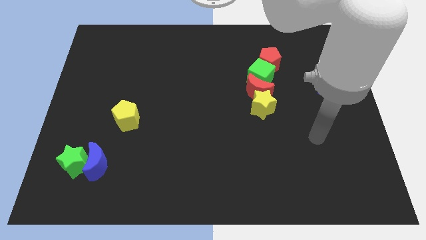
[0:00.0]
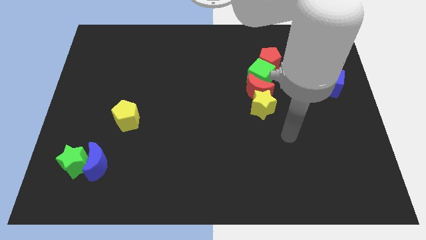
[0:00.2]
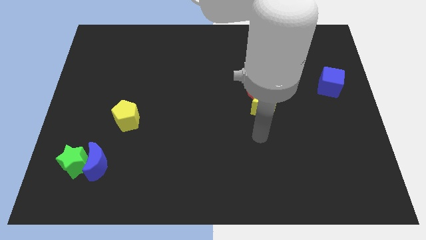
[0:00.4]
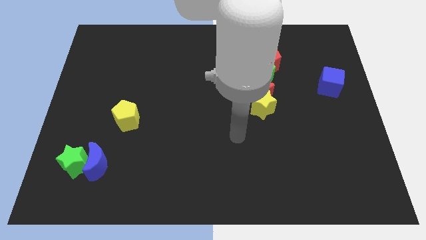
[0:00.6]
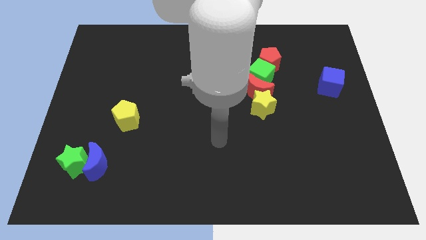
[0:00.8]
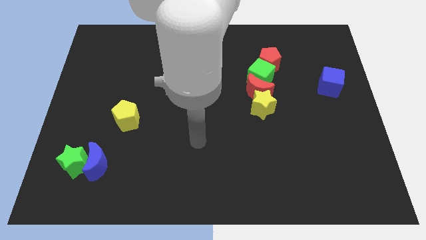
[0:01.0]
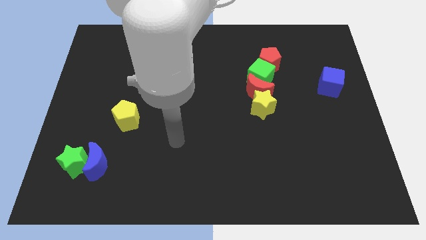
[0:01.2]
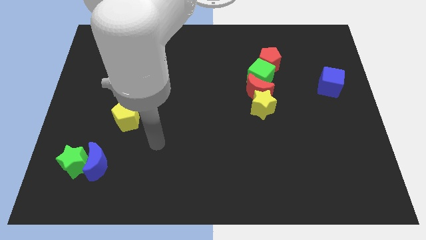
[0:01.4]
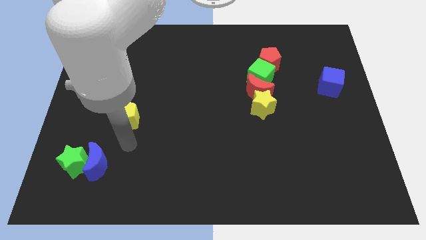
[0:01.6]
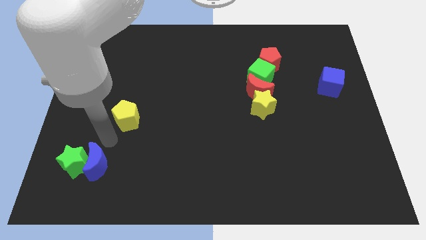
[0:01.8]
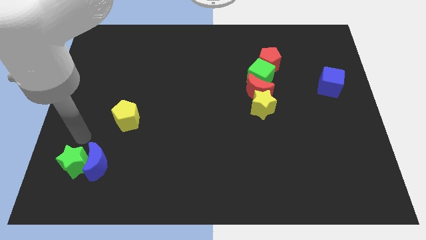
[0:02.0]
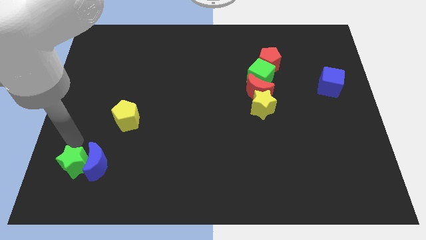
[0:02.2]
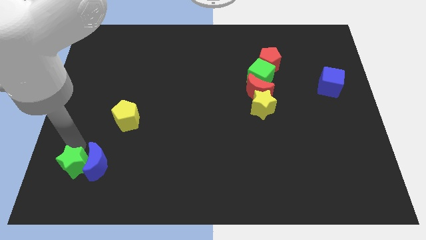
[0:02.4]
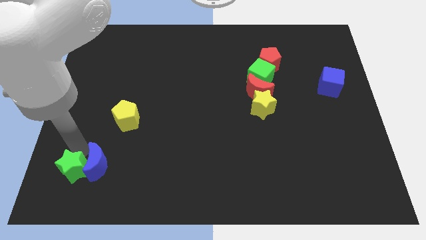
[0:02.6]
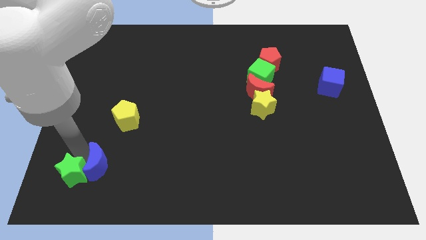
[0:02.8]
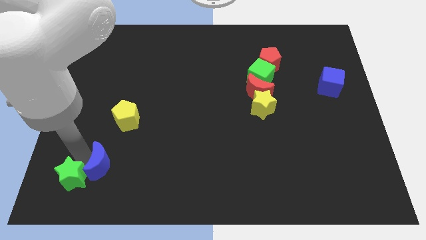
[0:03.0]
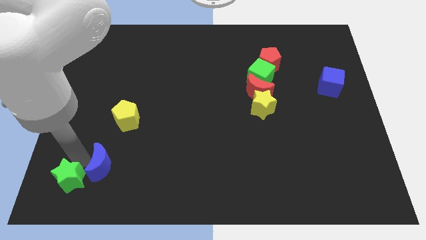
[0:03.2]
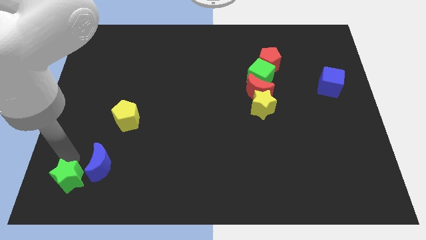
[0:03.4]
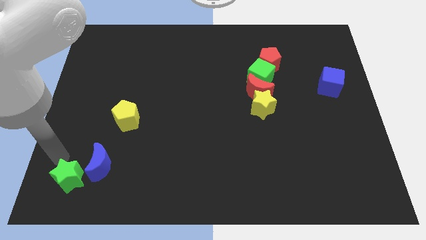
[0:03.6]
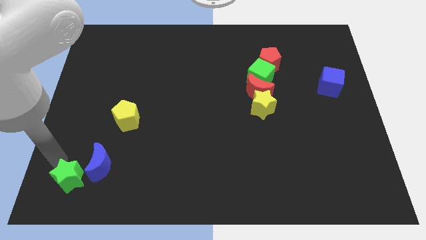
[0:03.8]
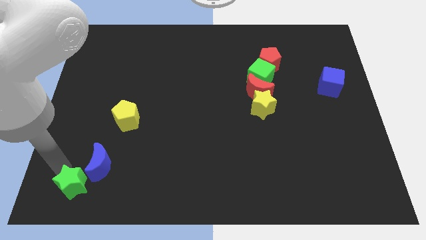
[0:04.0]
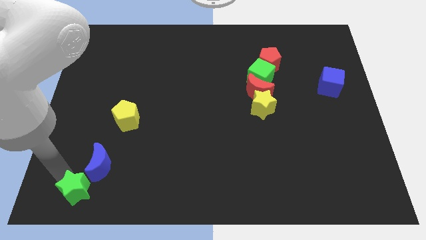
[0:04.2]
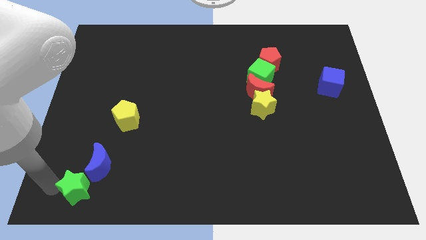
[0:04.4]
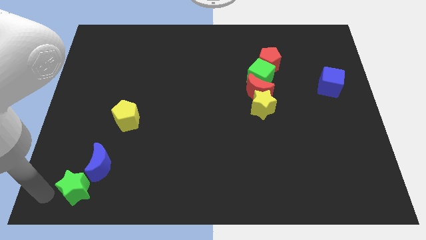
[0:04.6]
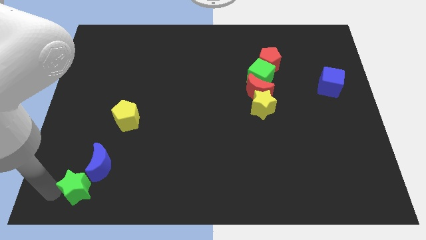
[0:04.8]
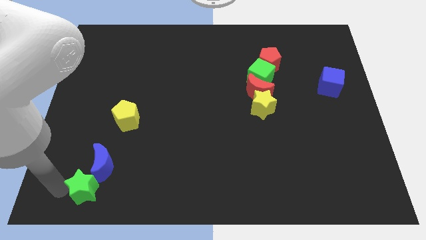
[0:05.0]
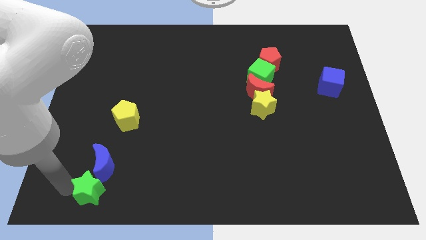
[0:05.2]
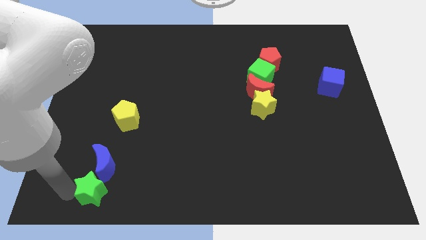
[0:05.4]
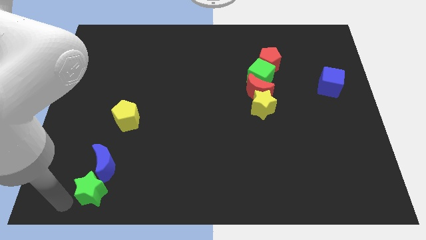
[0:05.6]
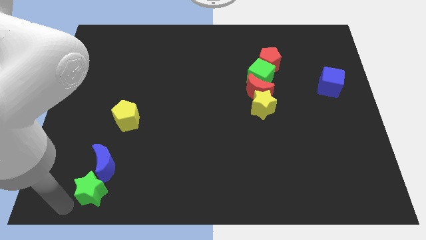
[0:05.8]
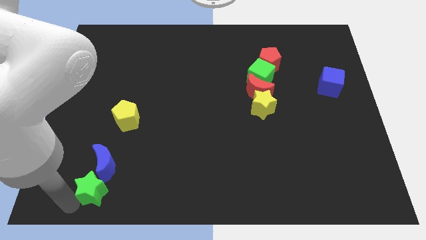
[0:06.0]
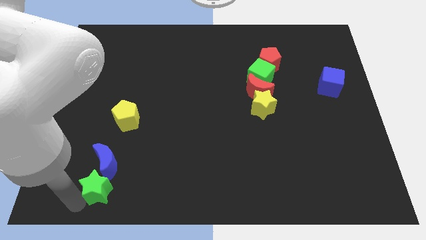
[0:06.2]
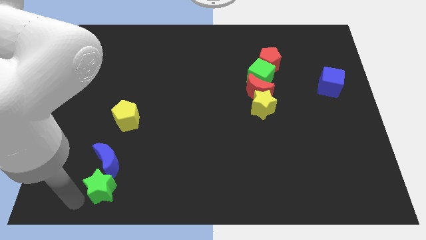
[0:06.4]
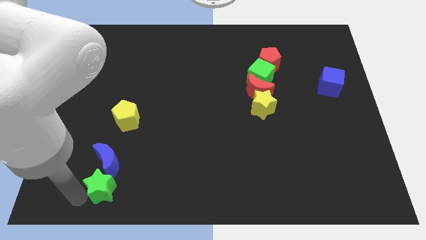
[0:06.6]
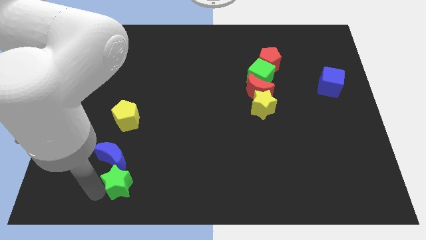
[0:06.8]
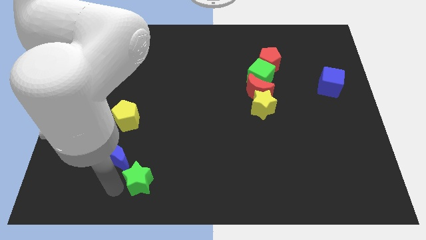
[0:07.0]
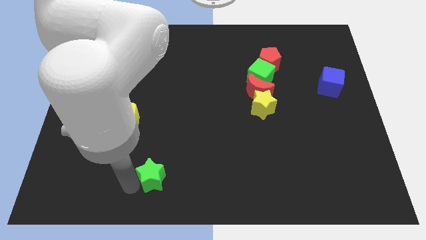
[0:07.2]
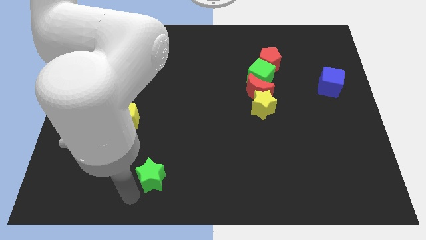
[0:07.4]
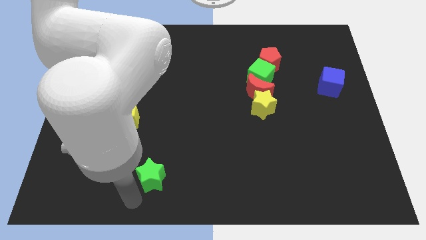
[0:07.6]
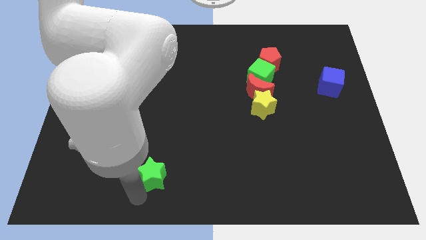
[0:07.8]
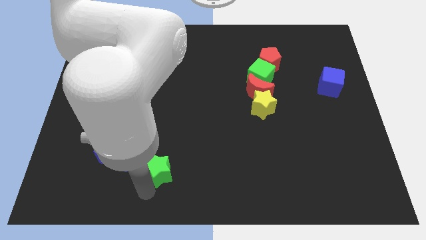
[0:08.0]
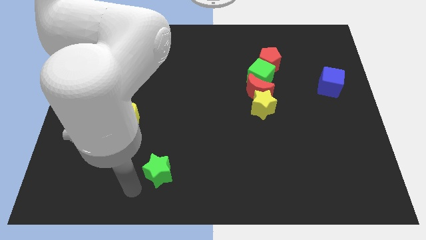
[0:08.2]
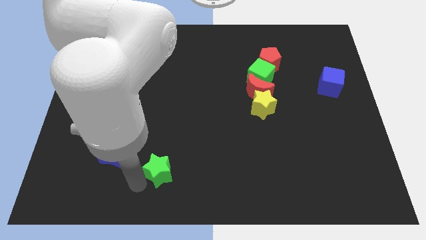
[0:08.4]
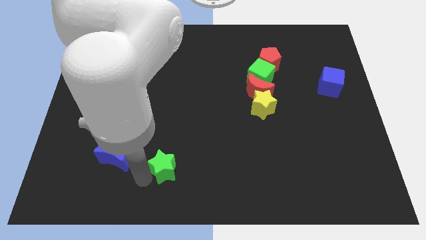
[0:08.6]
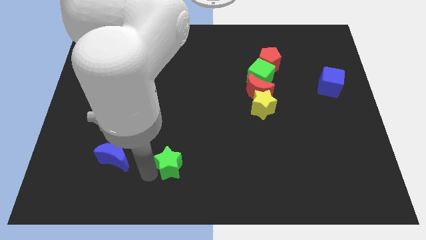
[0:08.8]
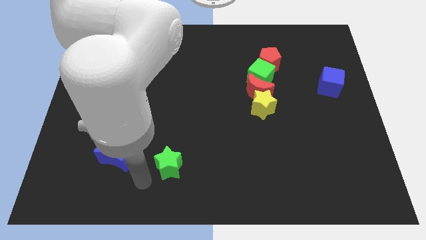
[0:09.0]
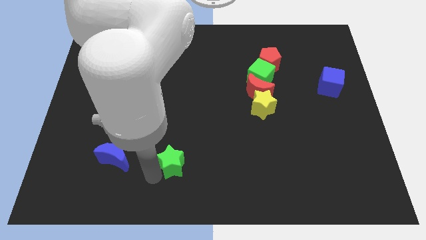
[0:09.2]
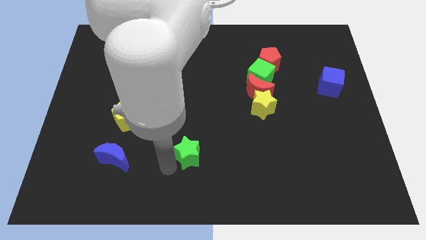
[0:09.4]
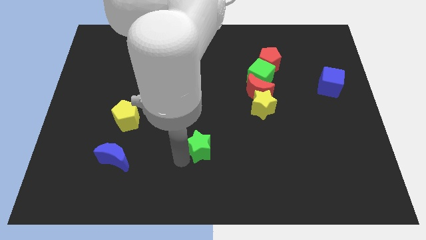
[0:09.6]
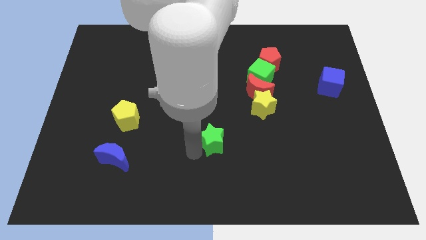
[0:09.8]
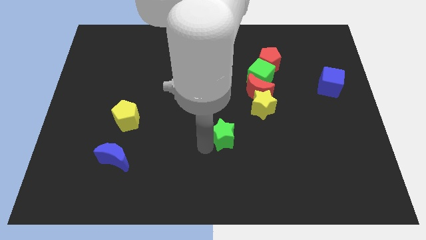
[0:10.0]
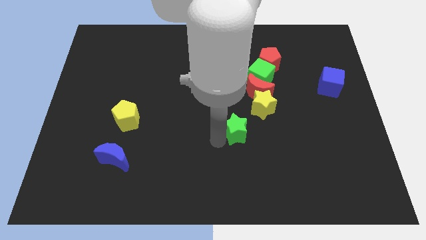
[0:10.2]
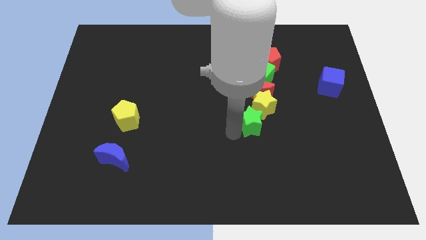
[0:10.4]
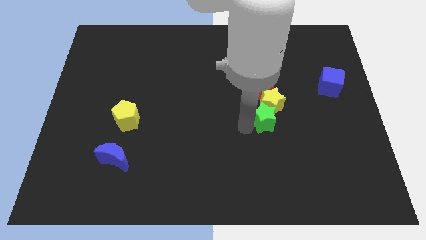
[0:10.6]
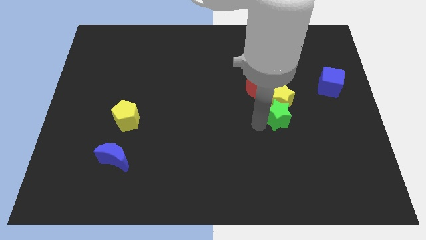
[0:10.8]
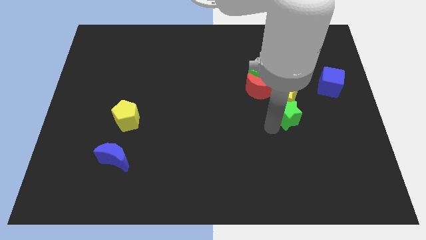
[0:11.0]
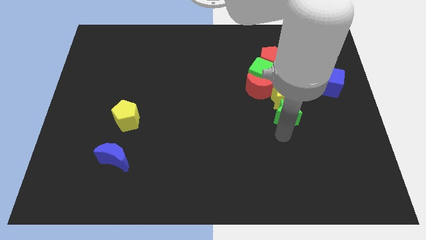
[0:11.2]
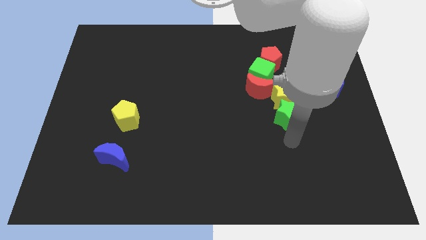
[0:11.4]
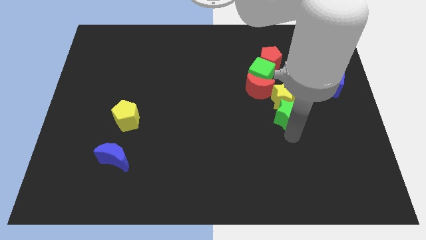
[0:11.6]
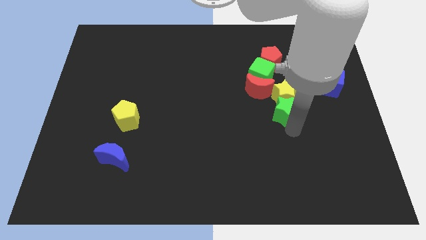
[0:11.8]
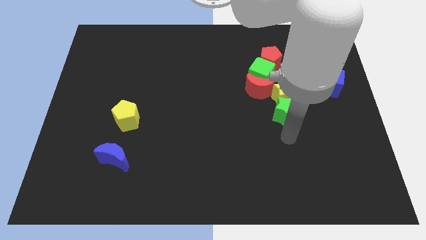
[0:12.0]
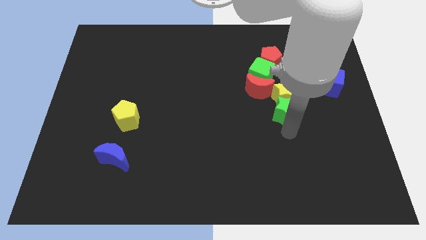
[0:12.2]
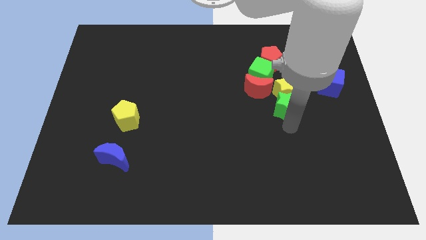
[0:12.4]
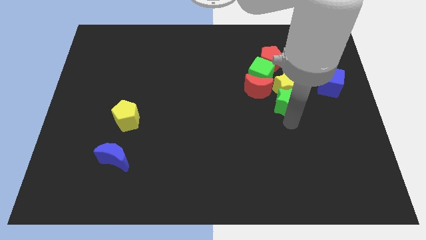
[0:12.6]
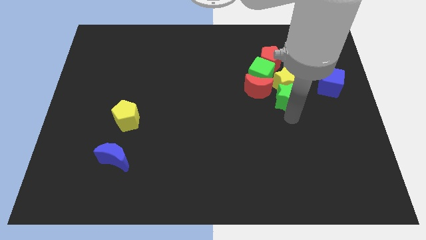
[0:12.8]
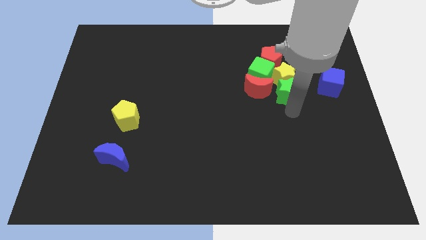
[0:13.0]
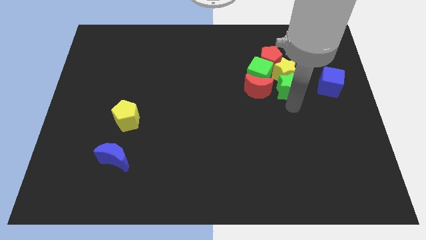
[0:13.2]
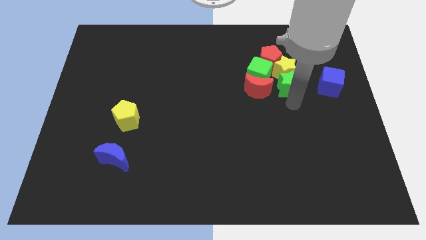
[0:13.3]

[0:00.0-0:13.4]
slide the green star diagonally up and to the right of the red moon

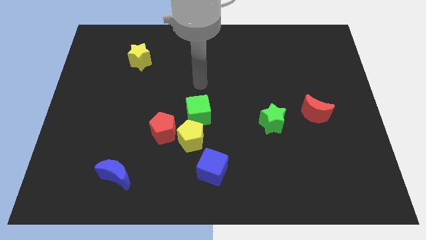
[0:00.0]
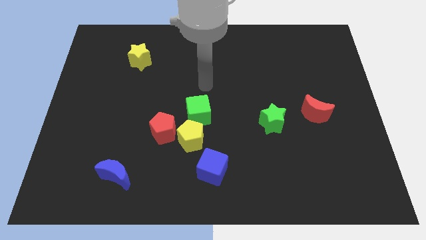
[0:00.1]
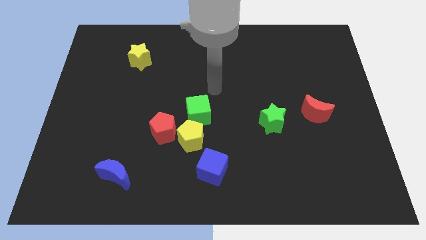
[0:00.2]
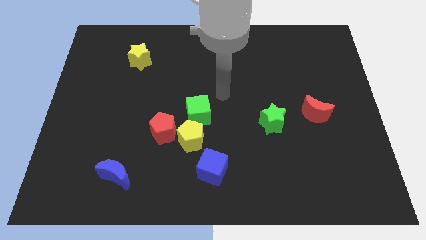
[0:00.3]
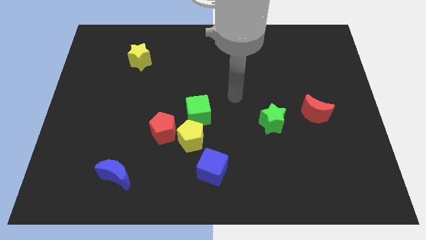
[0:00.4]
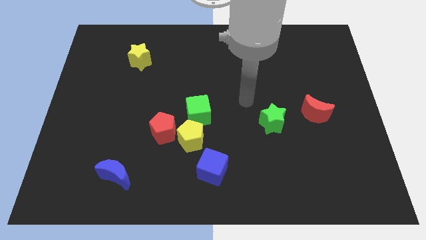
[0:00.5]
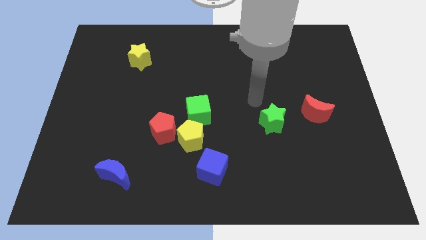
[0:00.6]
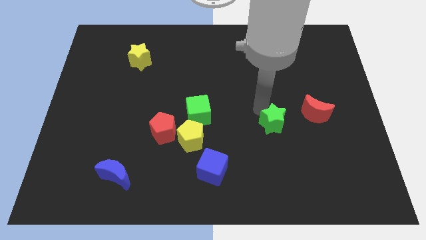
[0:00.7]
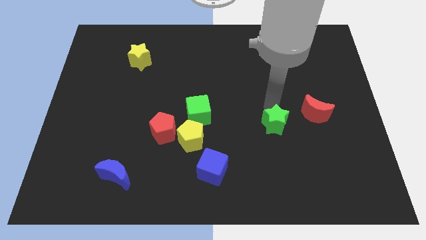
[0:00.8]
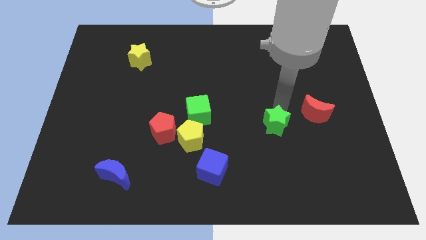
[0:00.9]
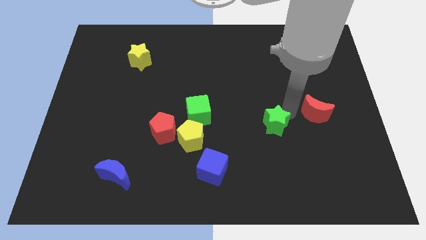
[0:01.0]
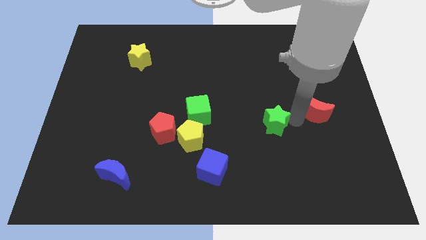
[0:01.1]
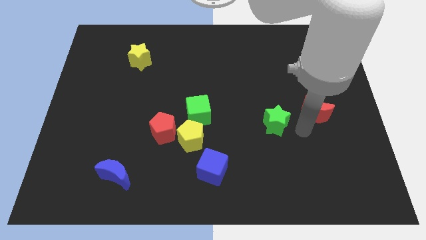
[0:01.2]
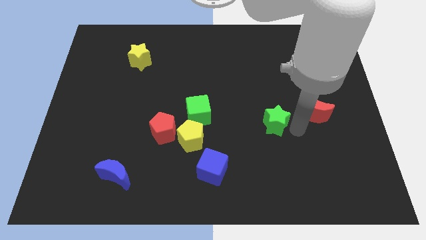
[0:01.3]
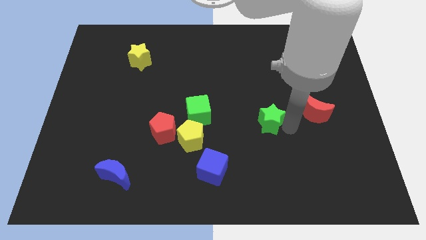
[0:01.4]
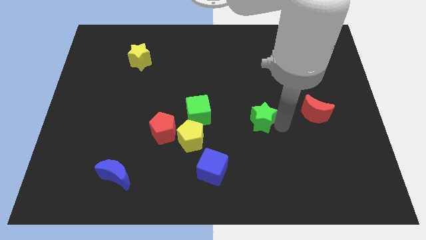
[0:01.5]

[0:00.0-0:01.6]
slide the green star right of the green cube
